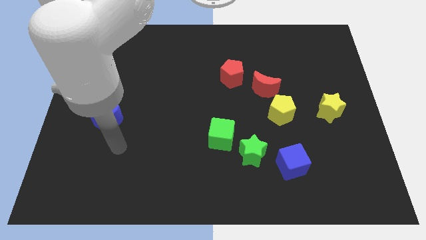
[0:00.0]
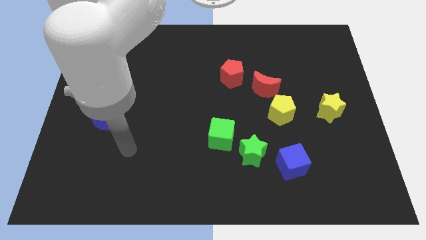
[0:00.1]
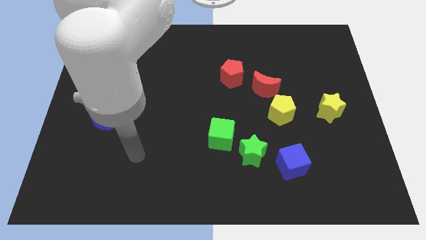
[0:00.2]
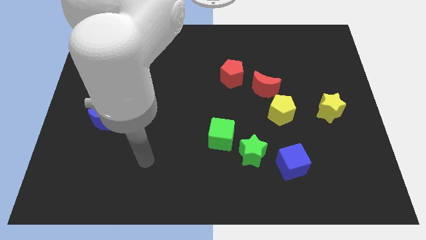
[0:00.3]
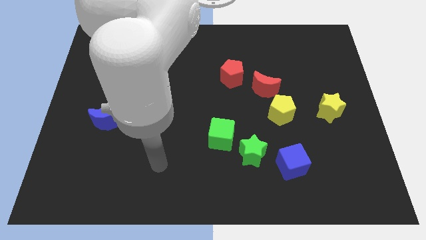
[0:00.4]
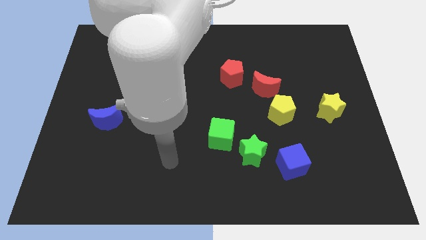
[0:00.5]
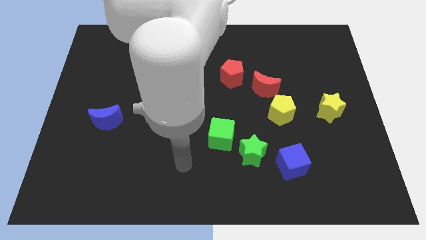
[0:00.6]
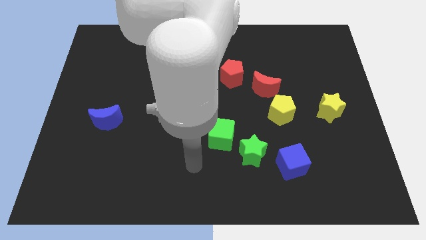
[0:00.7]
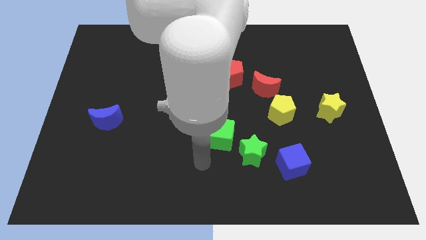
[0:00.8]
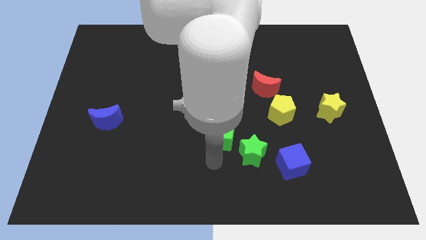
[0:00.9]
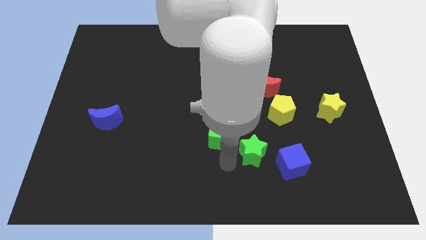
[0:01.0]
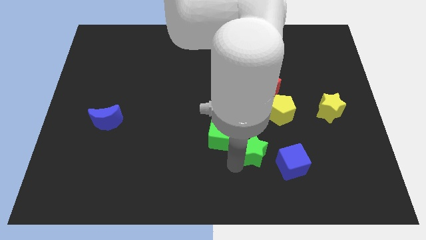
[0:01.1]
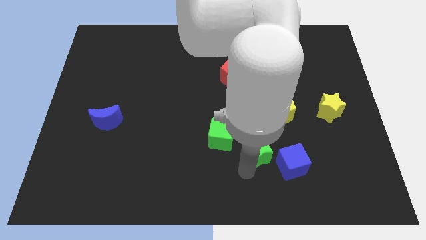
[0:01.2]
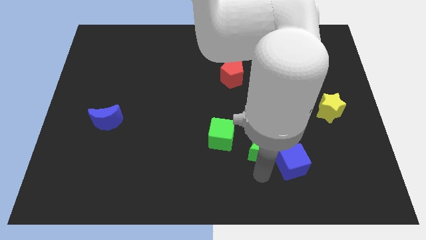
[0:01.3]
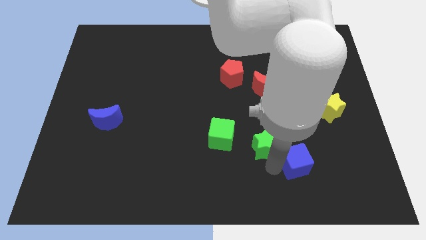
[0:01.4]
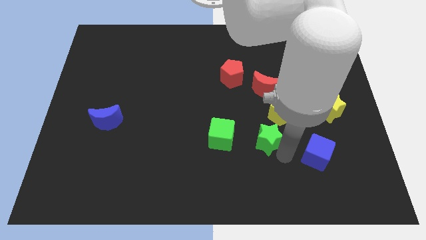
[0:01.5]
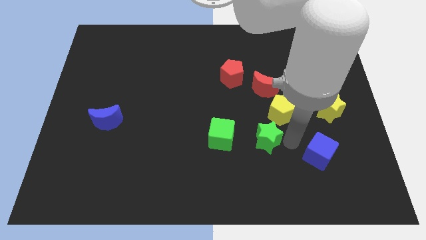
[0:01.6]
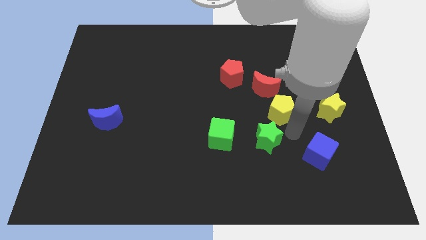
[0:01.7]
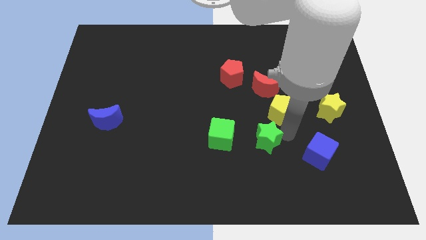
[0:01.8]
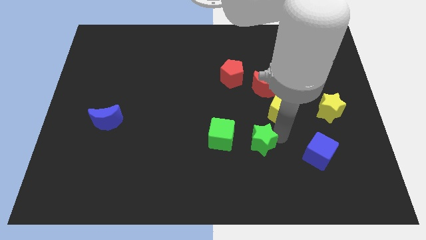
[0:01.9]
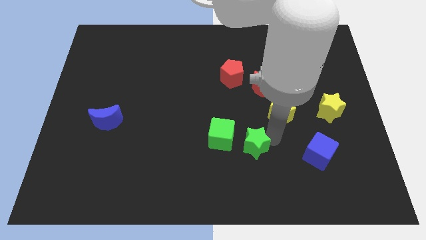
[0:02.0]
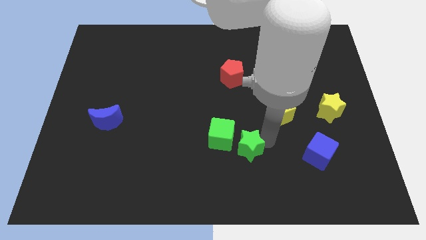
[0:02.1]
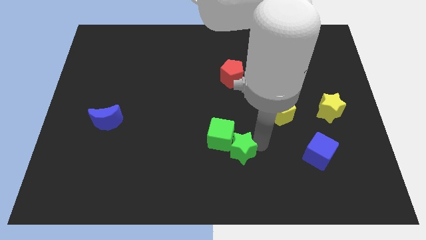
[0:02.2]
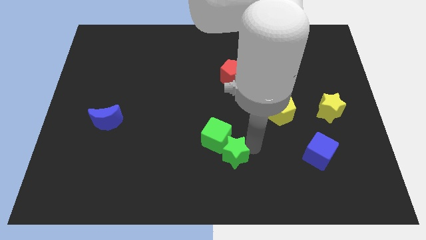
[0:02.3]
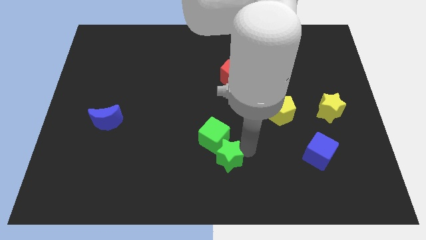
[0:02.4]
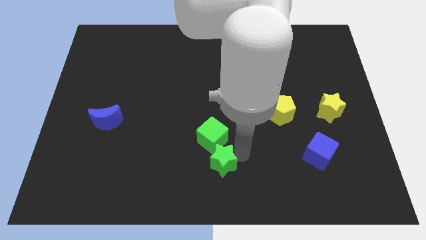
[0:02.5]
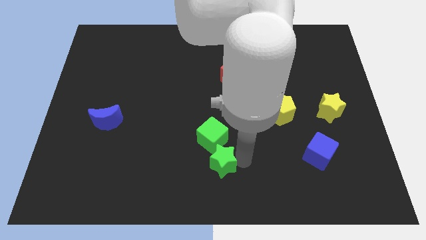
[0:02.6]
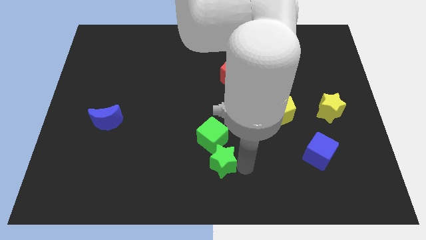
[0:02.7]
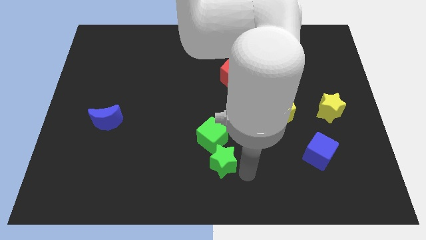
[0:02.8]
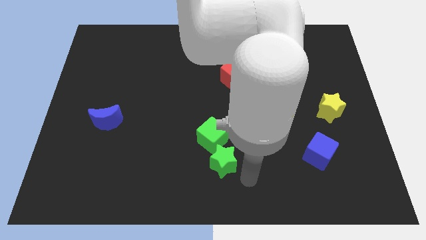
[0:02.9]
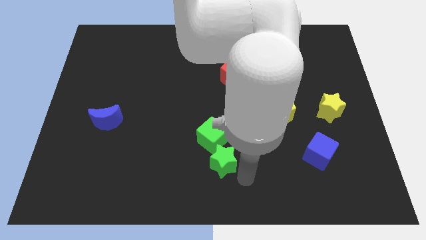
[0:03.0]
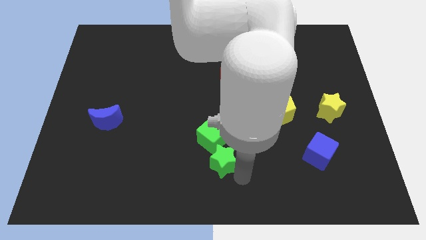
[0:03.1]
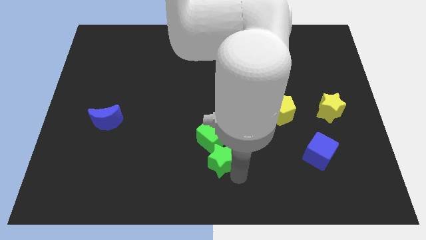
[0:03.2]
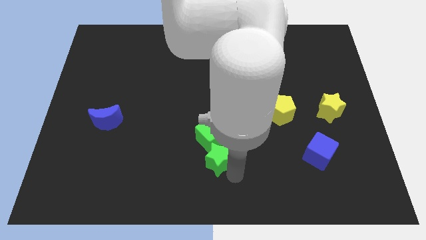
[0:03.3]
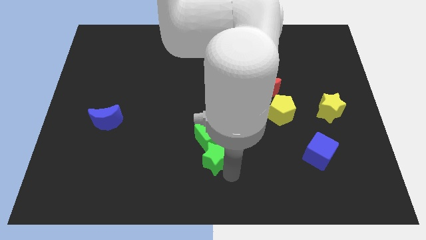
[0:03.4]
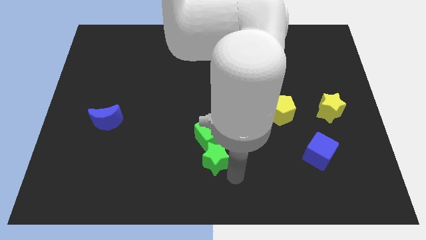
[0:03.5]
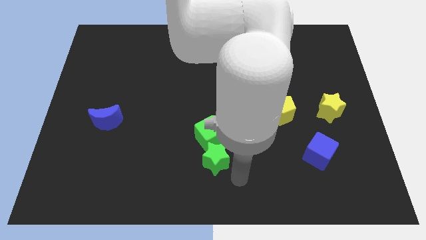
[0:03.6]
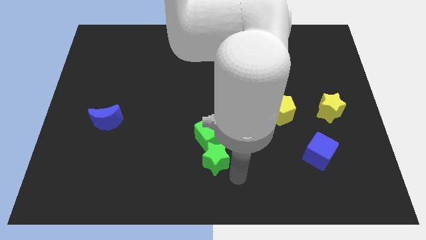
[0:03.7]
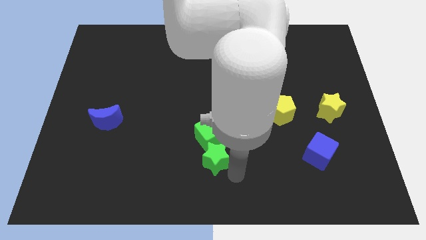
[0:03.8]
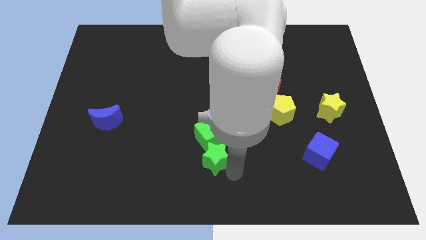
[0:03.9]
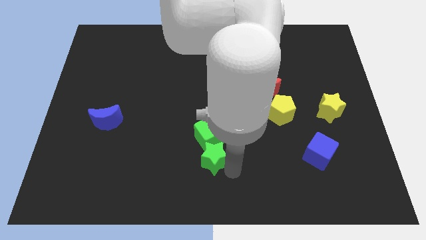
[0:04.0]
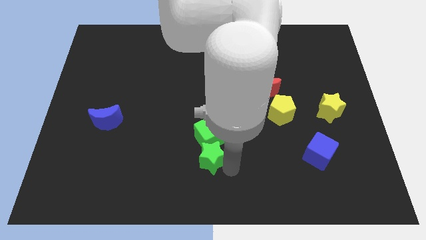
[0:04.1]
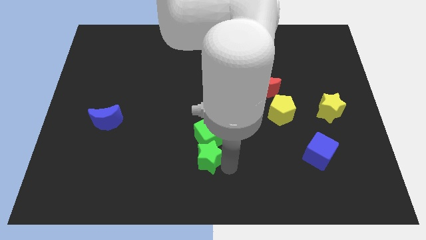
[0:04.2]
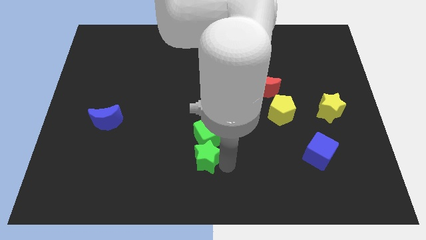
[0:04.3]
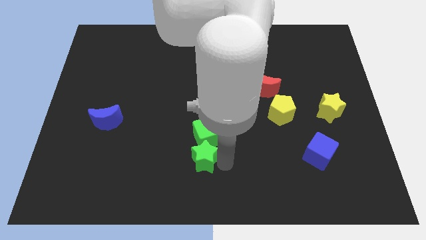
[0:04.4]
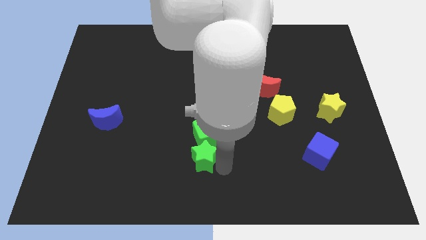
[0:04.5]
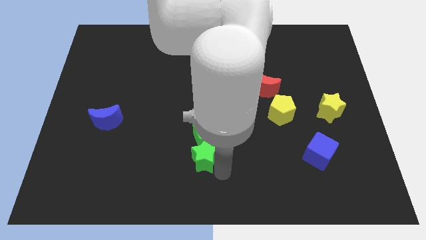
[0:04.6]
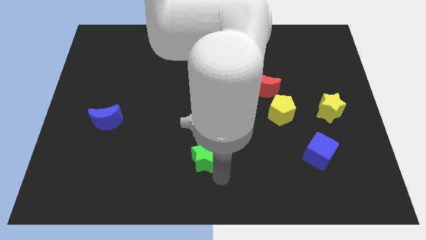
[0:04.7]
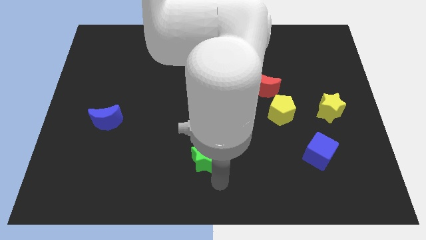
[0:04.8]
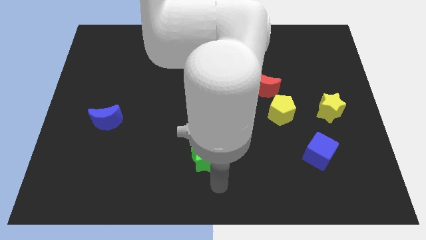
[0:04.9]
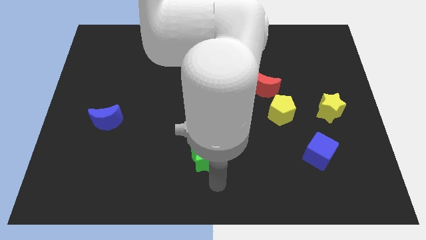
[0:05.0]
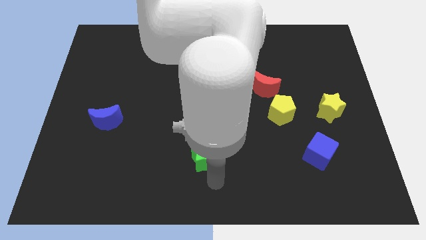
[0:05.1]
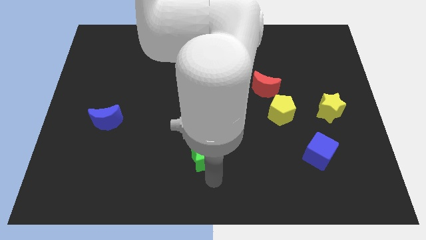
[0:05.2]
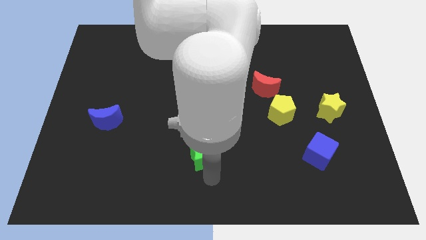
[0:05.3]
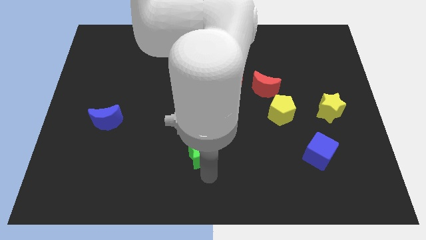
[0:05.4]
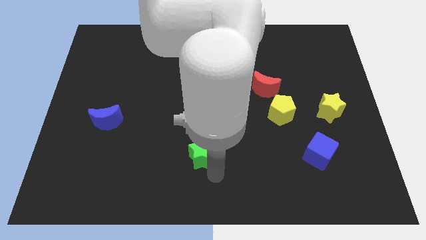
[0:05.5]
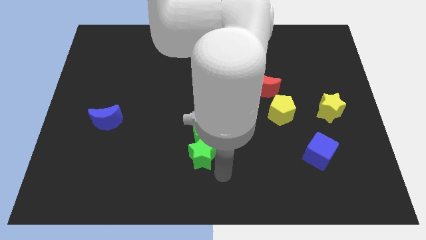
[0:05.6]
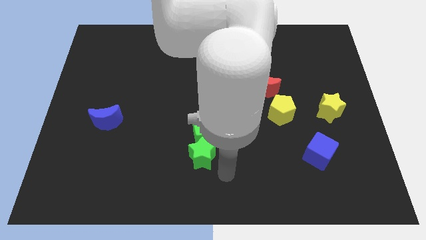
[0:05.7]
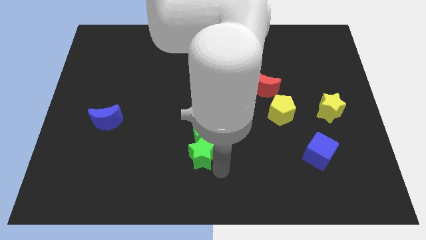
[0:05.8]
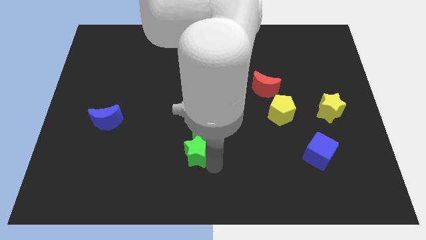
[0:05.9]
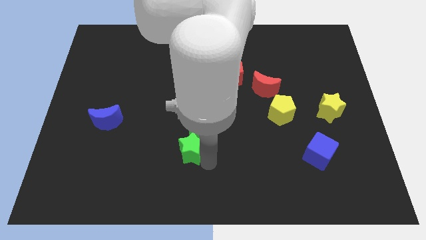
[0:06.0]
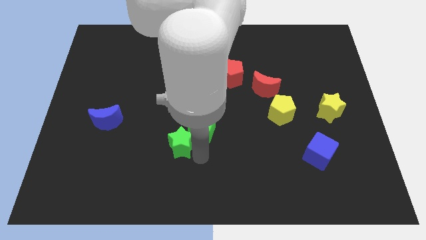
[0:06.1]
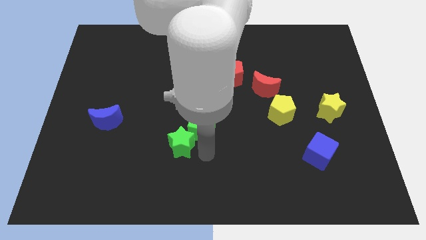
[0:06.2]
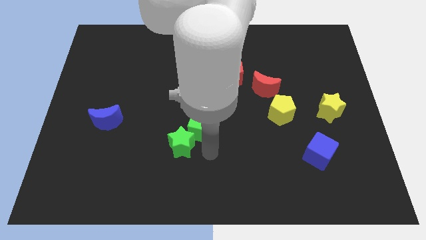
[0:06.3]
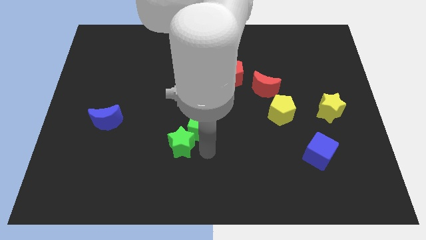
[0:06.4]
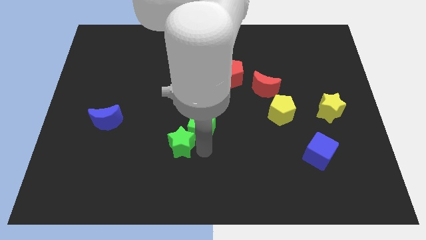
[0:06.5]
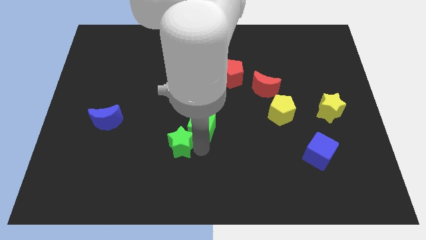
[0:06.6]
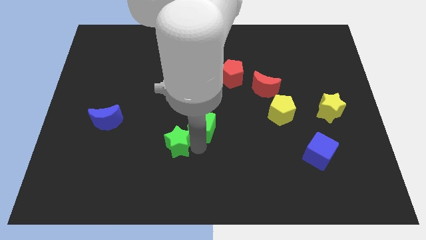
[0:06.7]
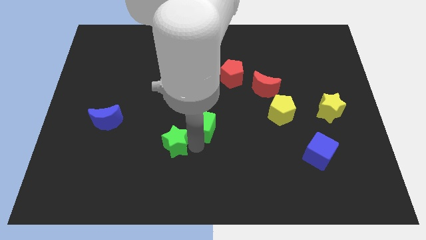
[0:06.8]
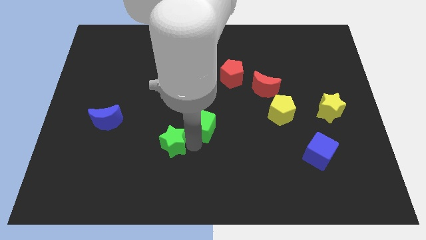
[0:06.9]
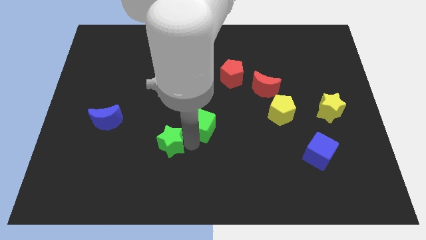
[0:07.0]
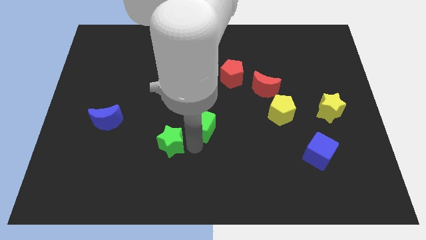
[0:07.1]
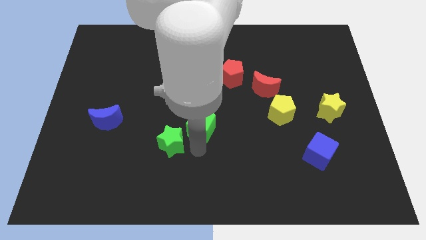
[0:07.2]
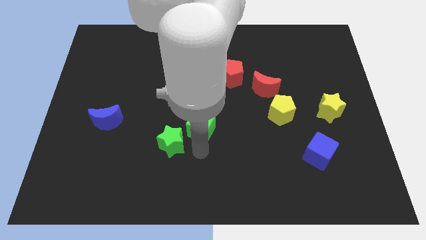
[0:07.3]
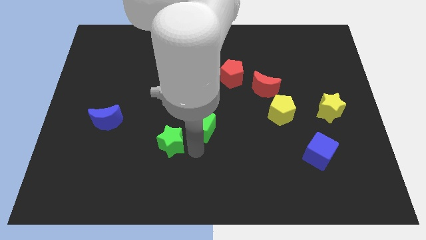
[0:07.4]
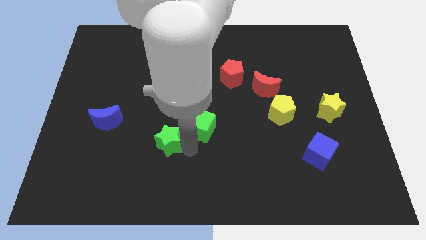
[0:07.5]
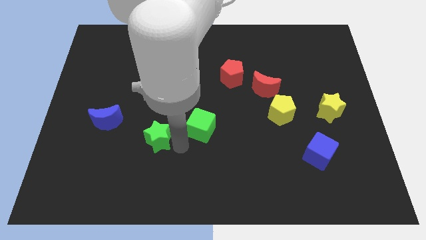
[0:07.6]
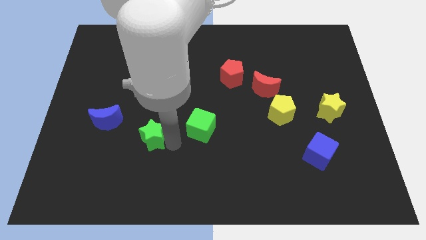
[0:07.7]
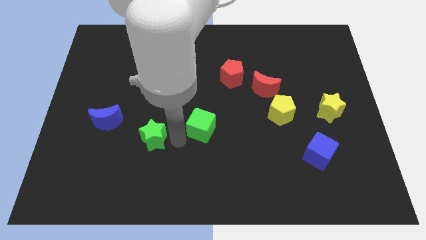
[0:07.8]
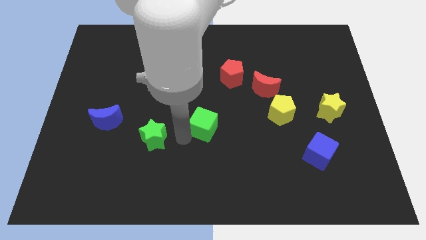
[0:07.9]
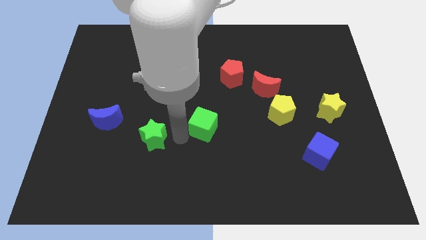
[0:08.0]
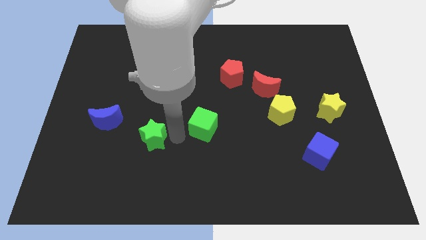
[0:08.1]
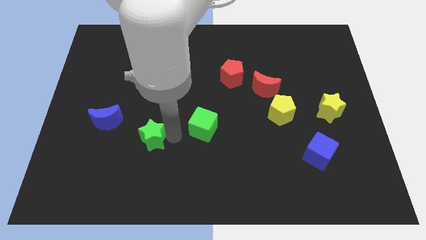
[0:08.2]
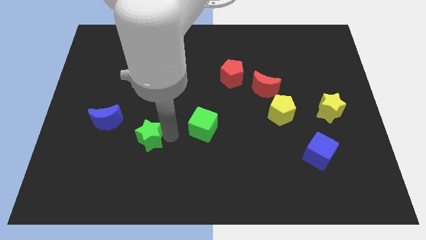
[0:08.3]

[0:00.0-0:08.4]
move the green star to the bottom right side of the blue moon
